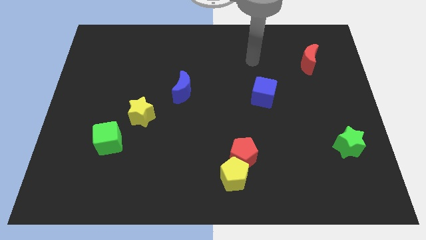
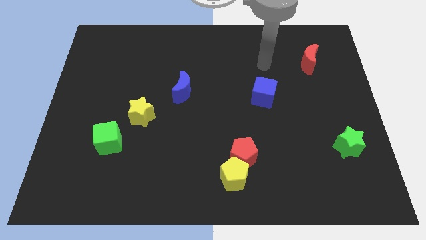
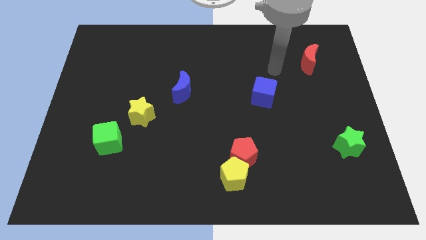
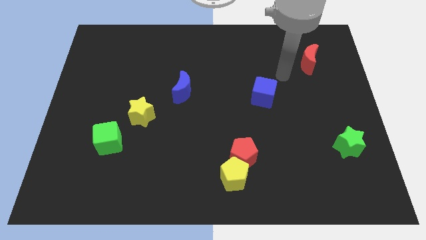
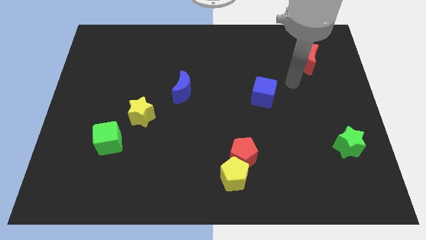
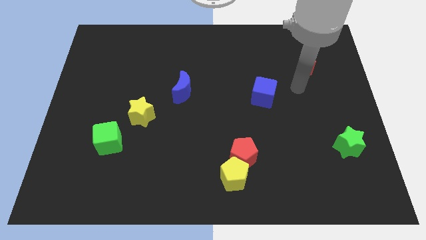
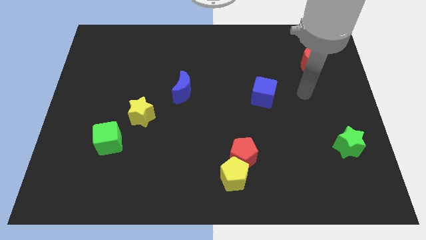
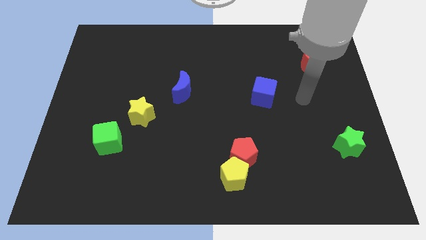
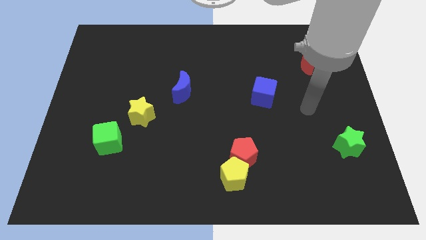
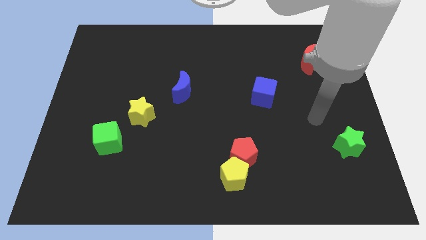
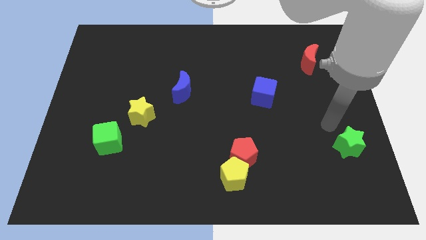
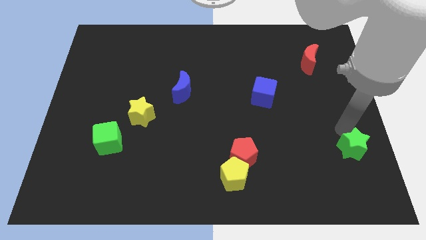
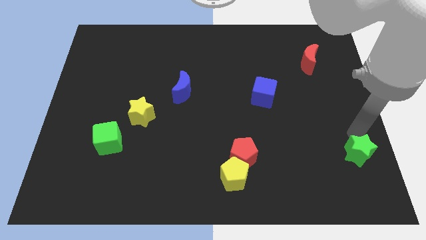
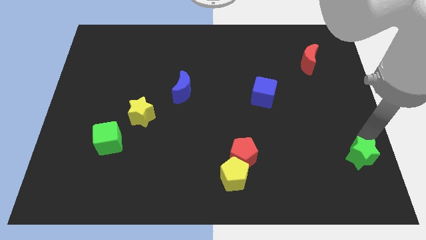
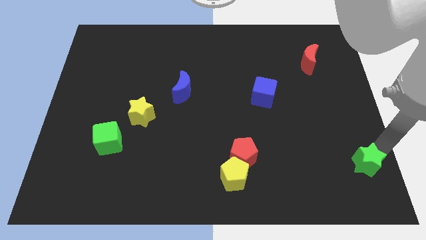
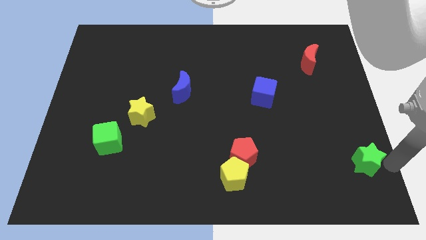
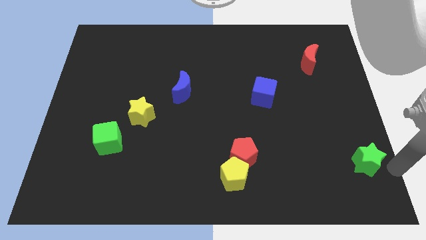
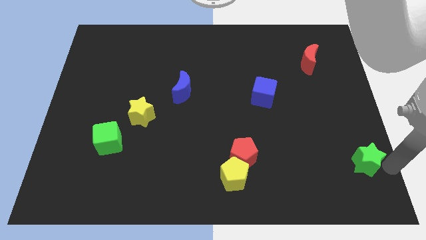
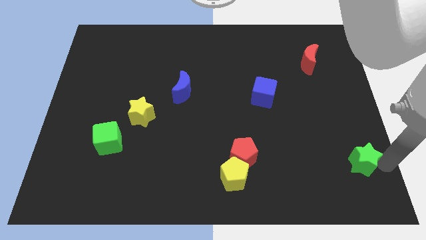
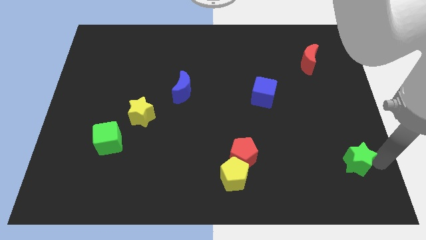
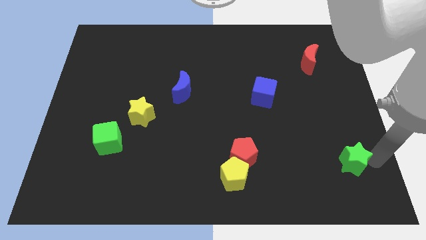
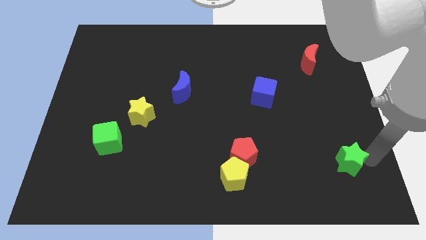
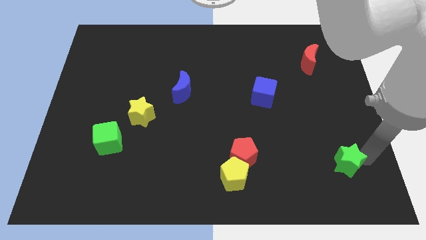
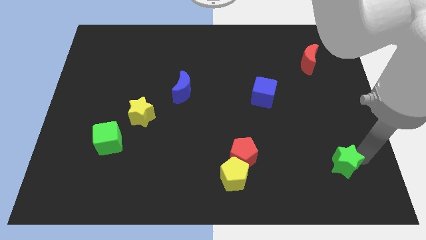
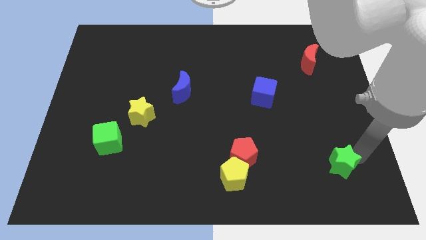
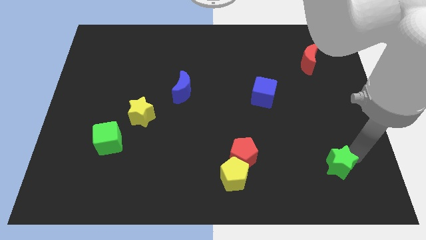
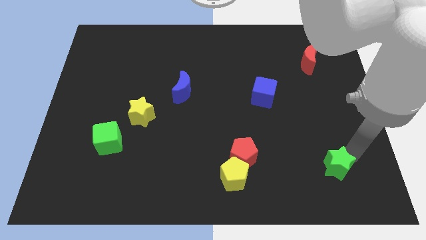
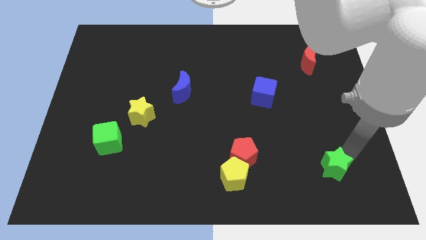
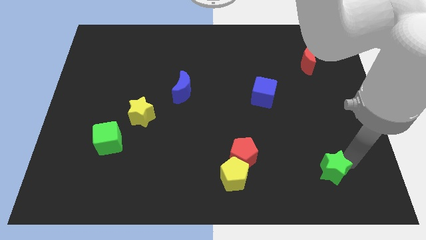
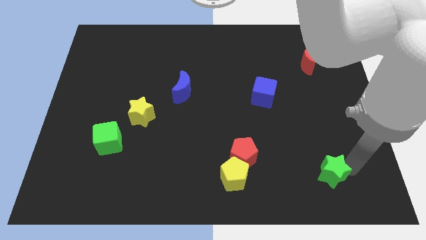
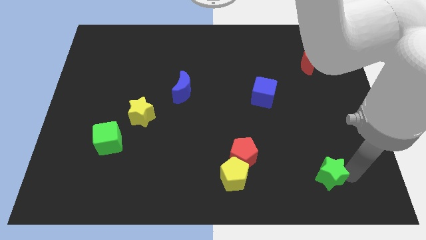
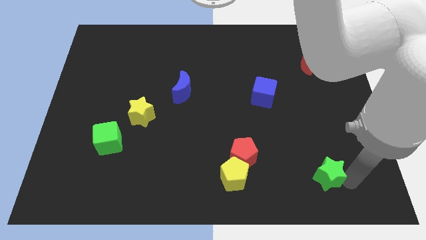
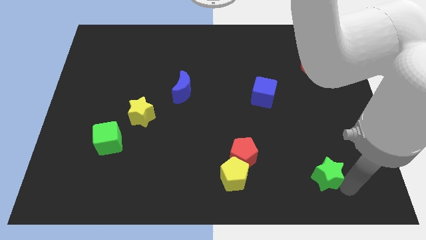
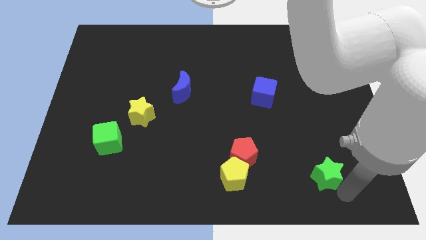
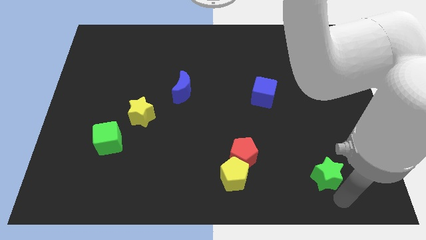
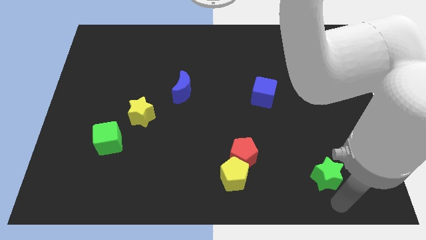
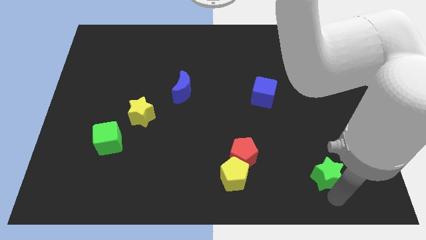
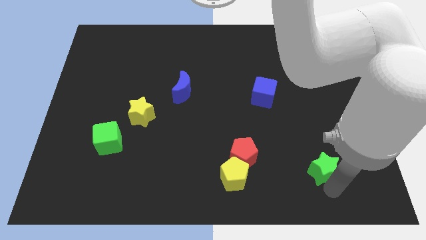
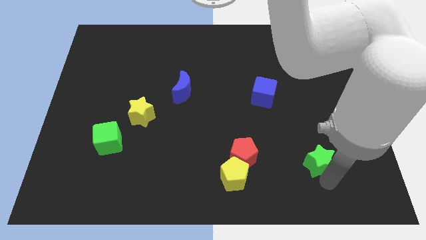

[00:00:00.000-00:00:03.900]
slide the green star a little to the left

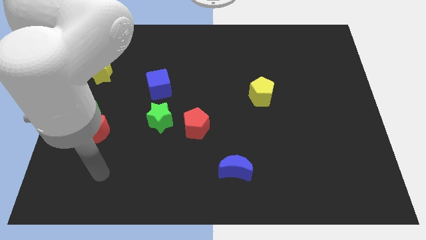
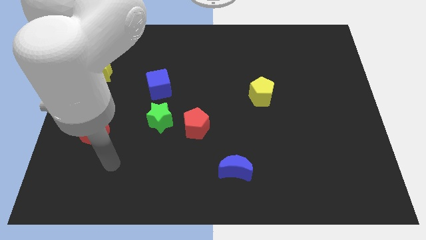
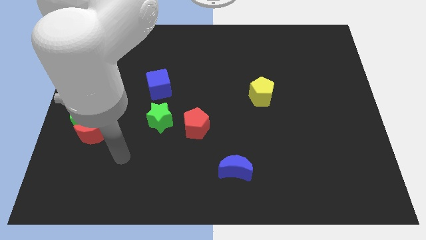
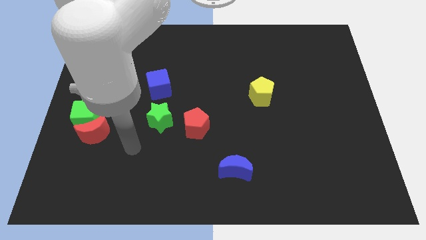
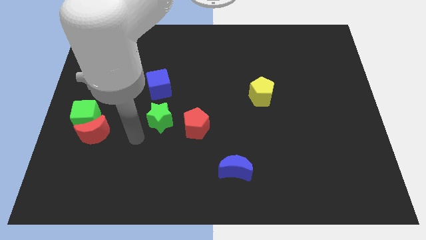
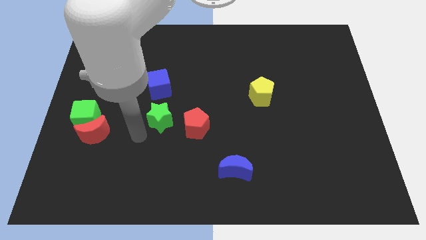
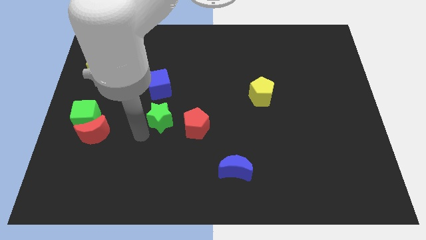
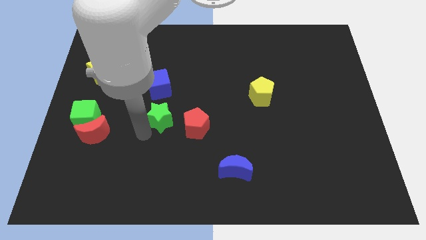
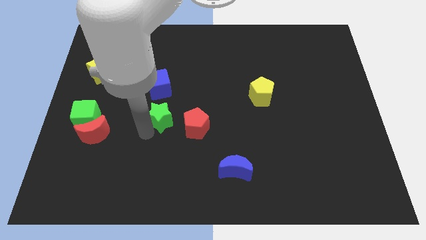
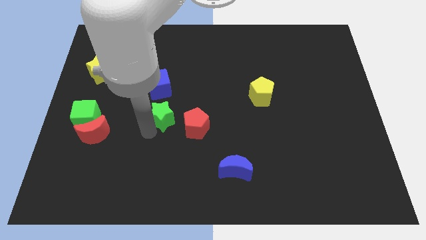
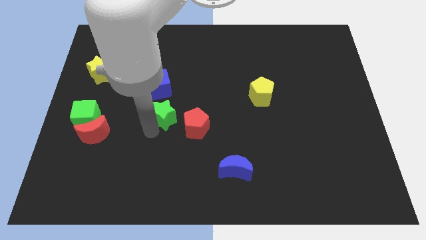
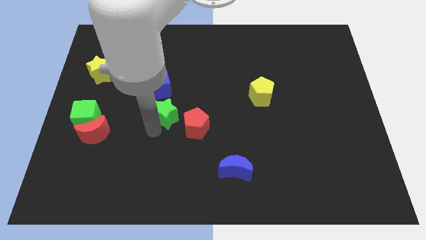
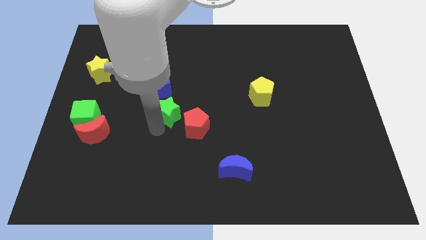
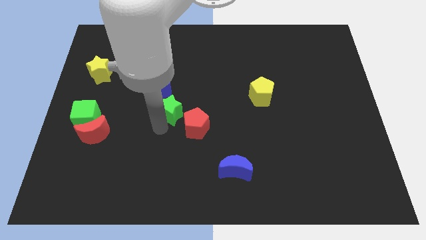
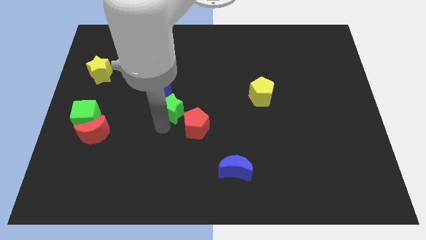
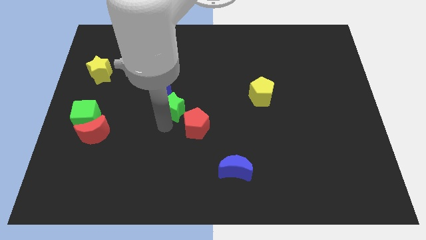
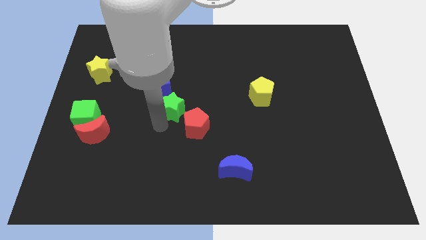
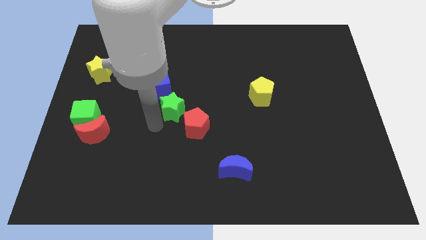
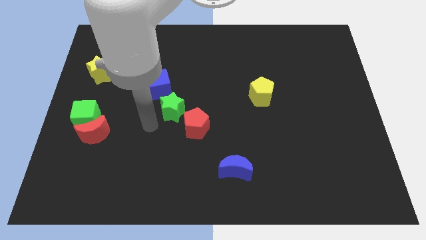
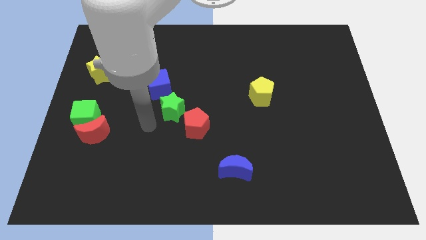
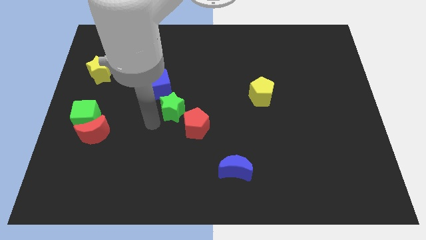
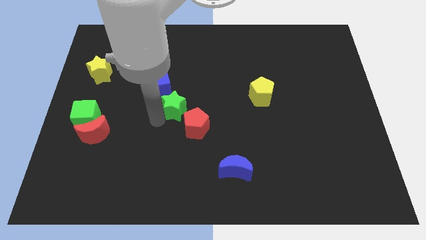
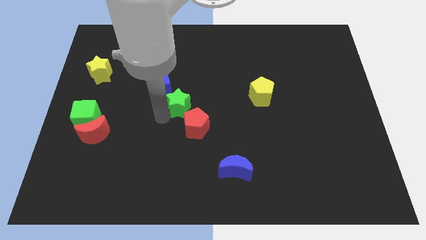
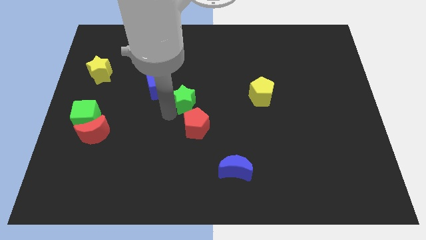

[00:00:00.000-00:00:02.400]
slightly slide the green star up and to the right

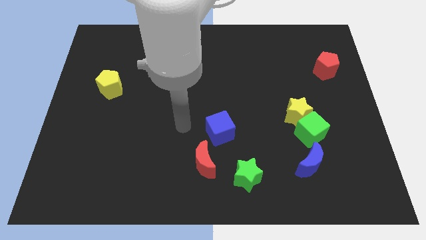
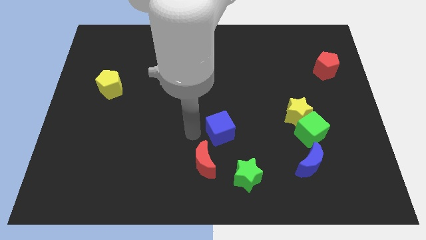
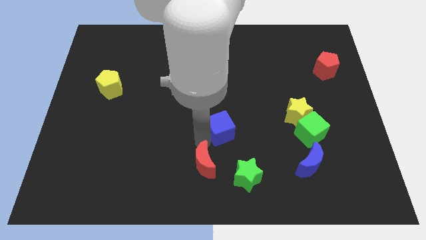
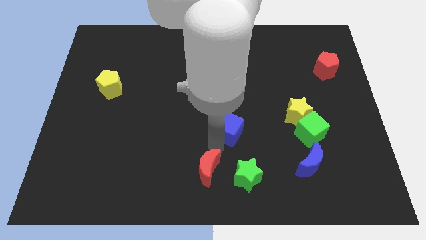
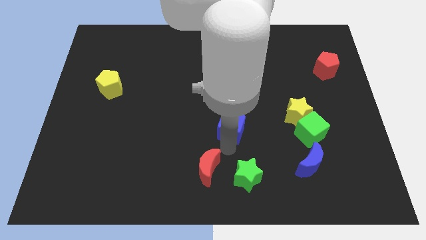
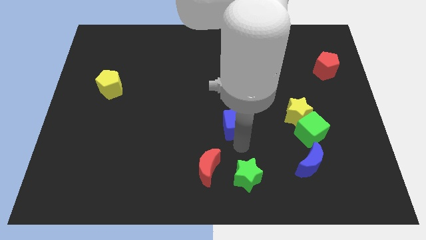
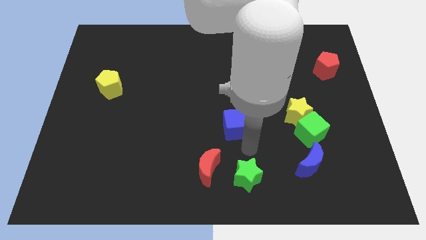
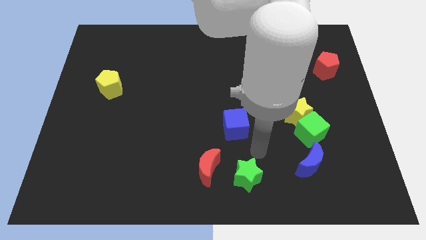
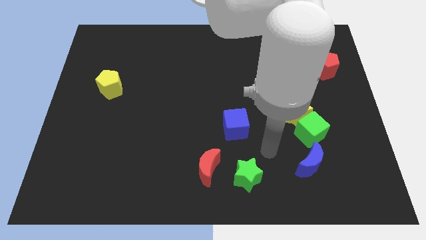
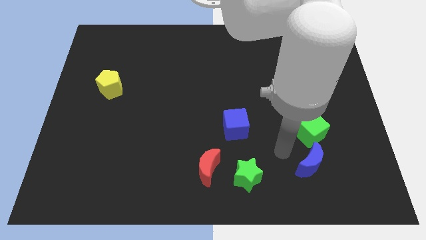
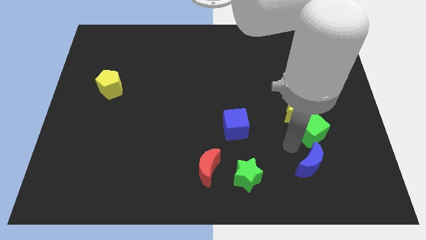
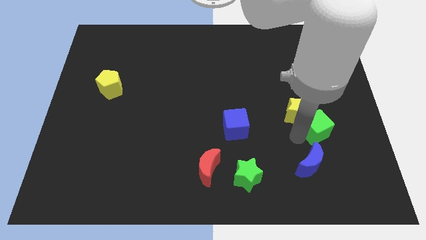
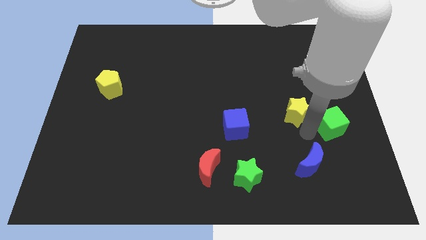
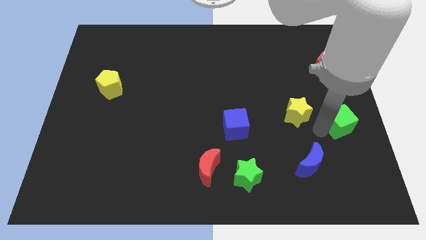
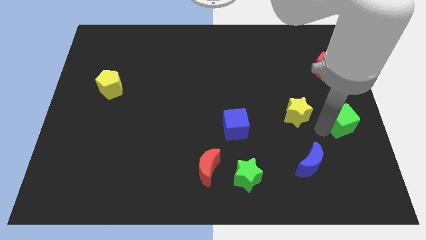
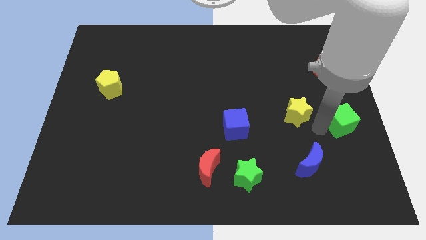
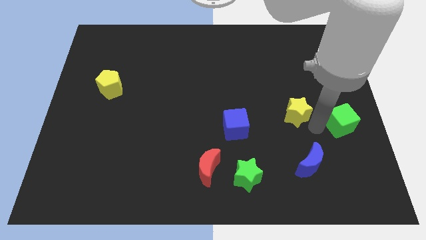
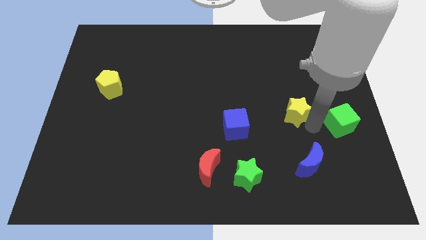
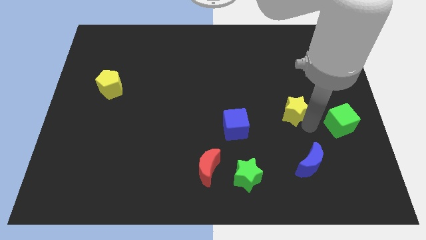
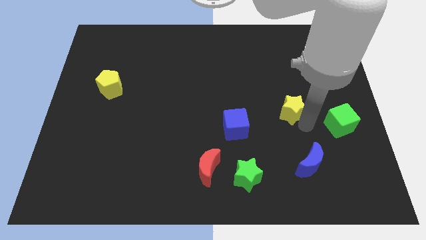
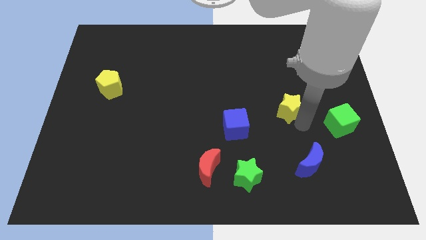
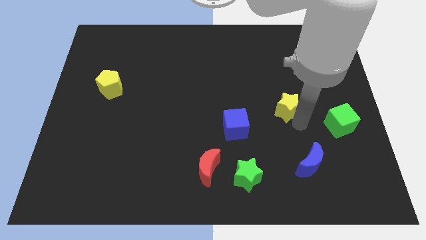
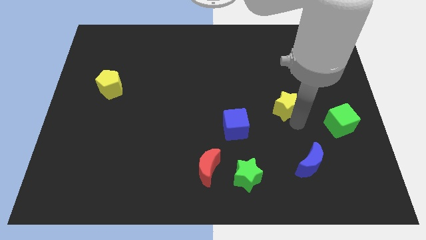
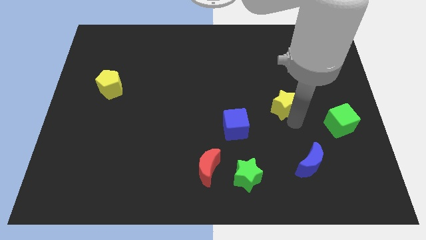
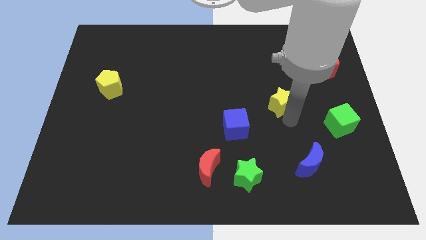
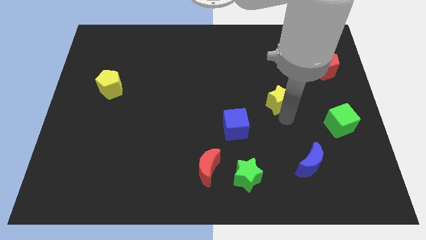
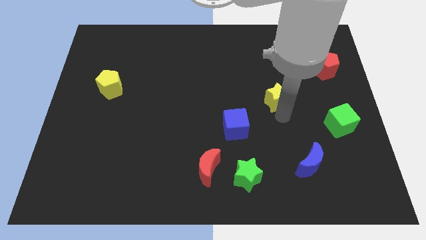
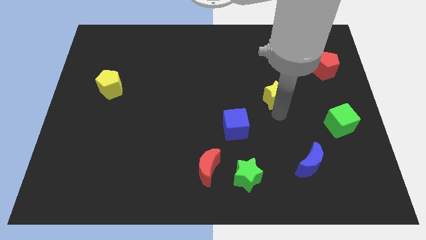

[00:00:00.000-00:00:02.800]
move the yellow star slightly upwards and left diagonally
